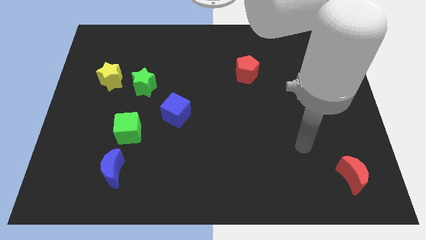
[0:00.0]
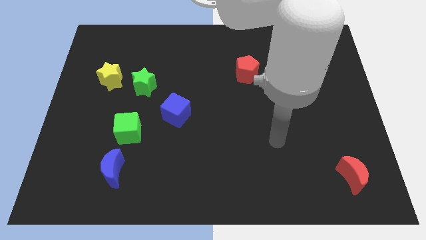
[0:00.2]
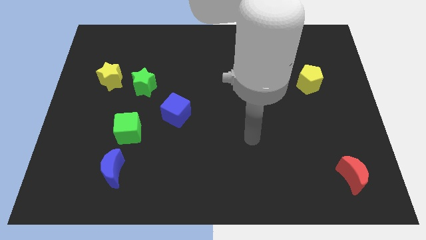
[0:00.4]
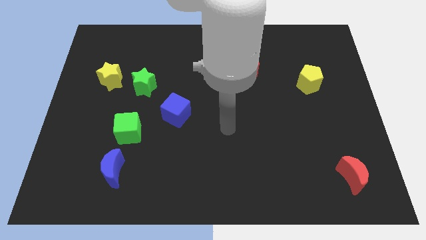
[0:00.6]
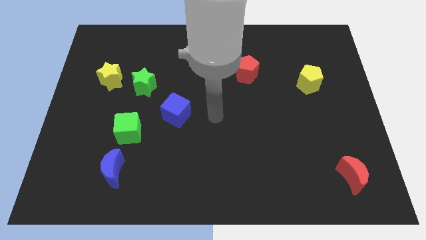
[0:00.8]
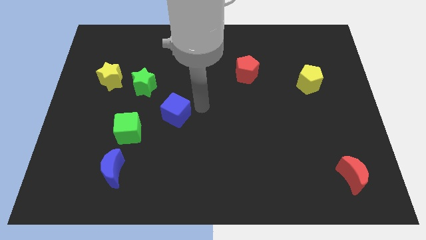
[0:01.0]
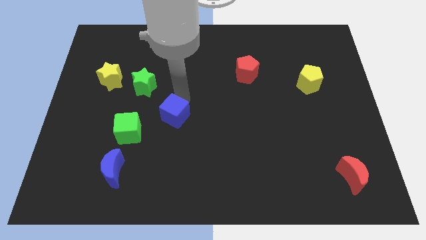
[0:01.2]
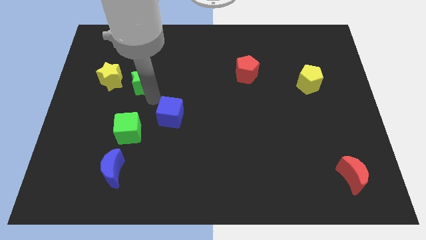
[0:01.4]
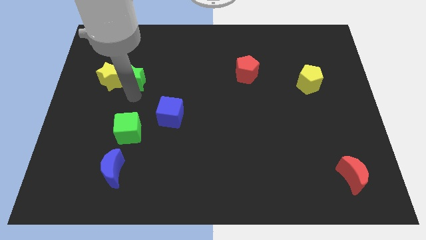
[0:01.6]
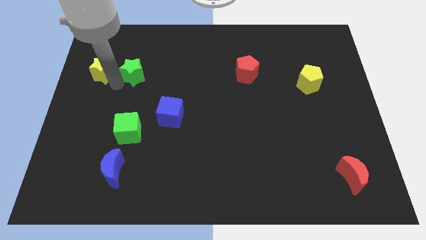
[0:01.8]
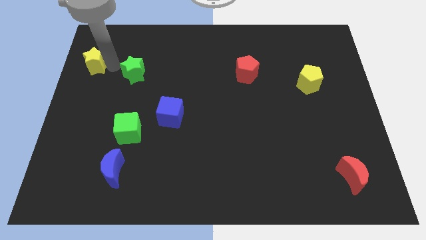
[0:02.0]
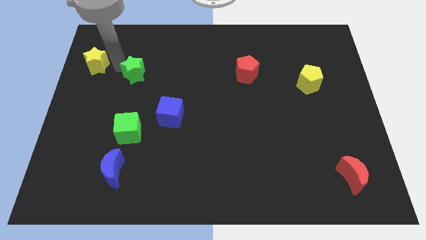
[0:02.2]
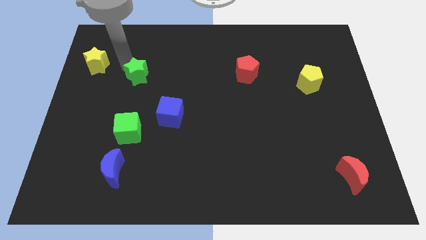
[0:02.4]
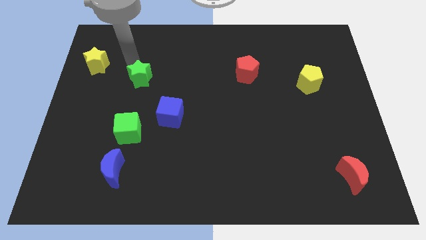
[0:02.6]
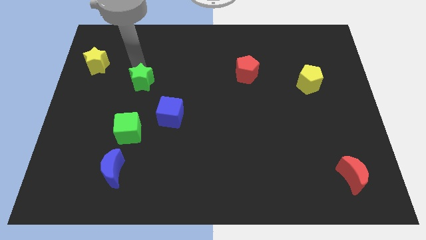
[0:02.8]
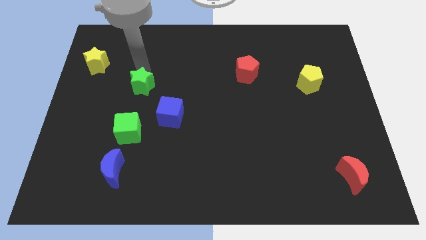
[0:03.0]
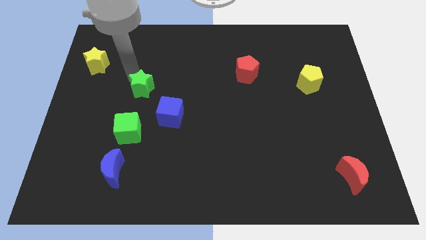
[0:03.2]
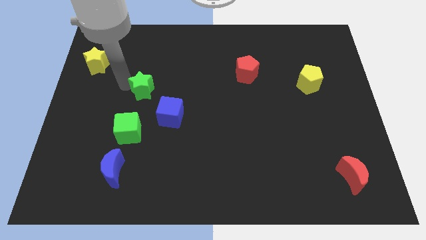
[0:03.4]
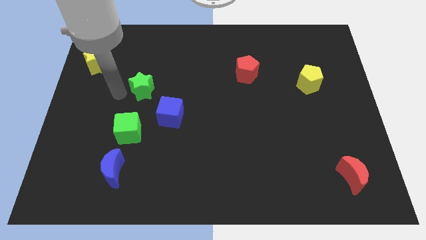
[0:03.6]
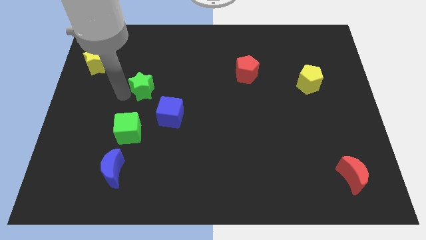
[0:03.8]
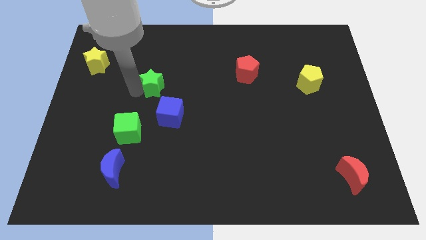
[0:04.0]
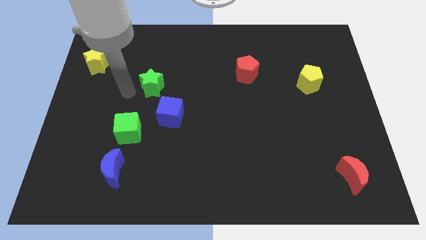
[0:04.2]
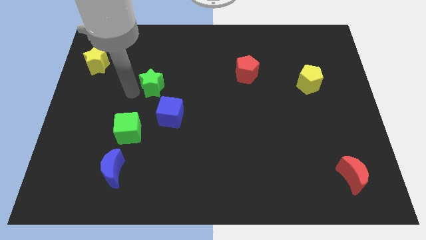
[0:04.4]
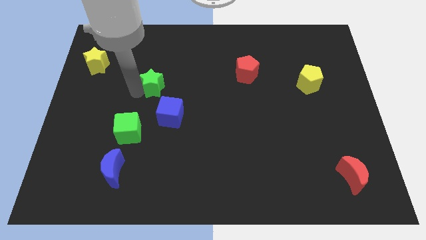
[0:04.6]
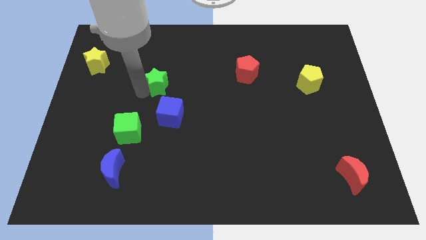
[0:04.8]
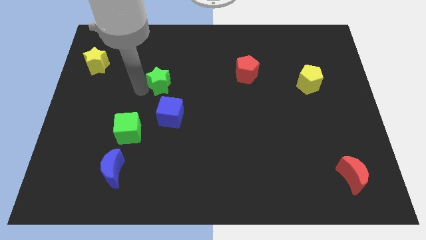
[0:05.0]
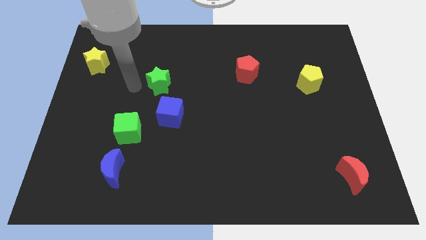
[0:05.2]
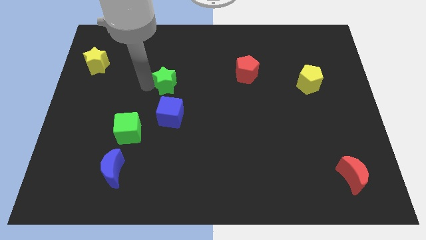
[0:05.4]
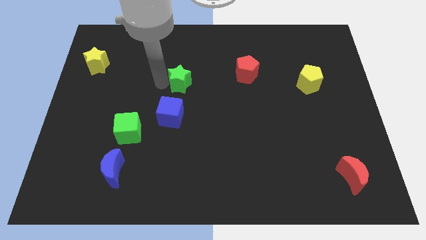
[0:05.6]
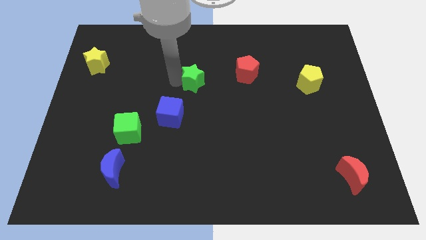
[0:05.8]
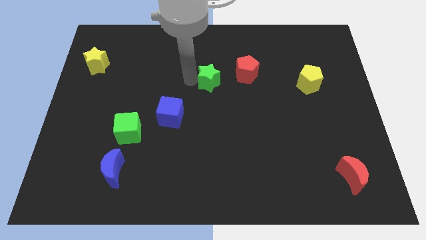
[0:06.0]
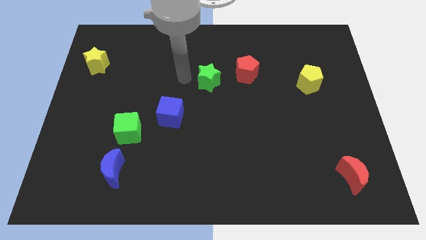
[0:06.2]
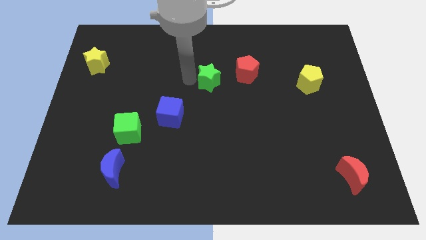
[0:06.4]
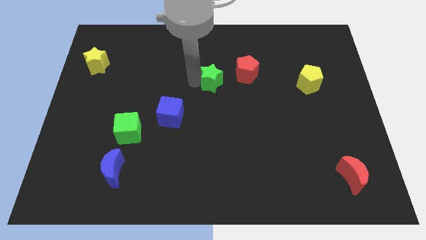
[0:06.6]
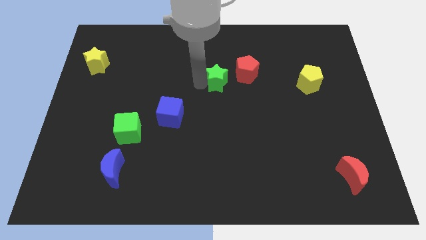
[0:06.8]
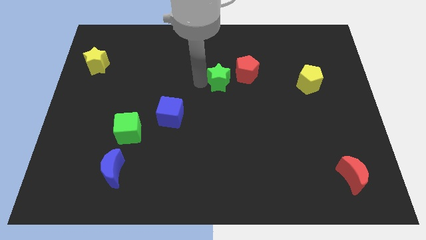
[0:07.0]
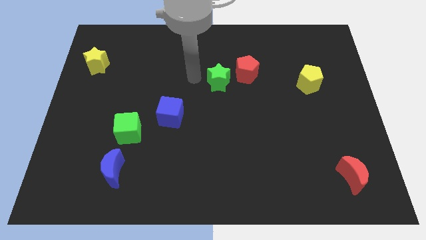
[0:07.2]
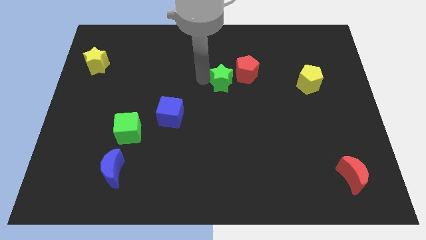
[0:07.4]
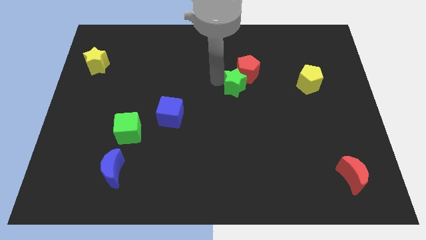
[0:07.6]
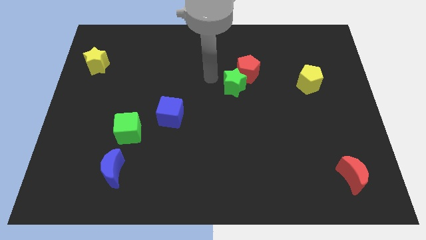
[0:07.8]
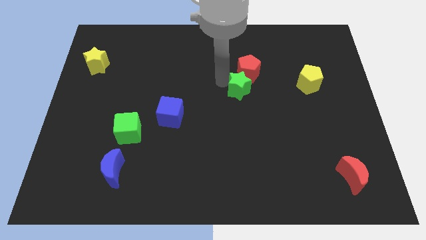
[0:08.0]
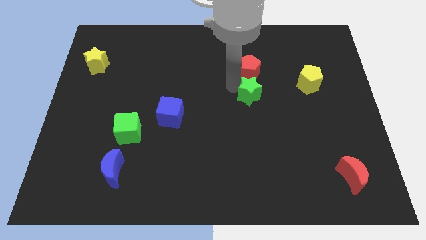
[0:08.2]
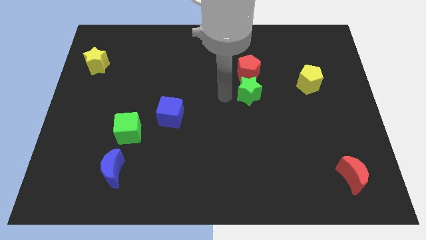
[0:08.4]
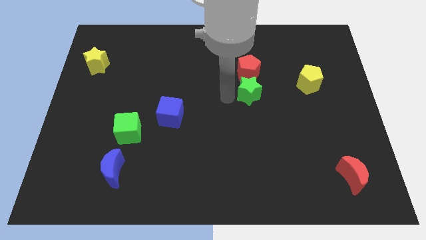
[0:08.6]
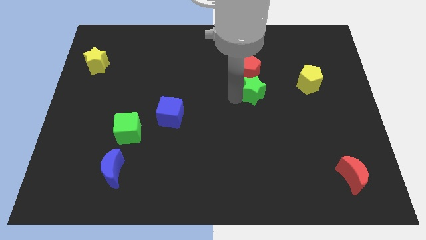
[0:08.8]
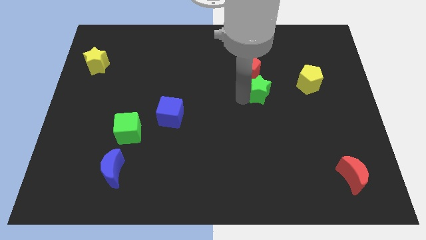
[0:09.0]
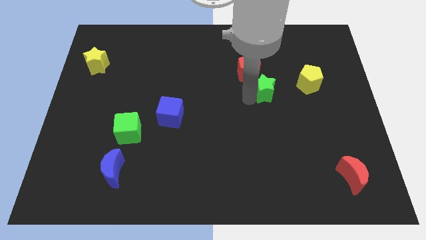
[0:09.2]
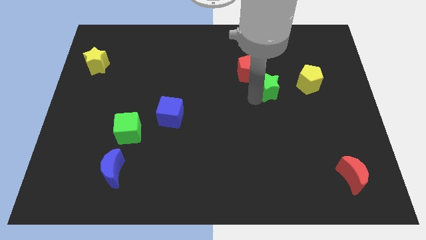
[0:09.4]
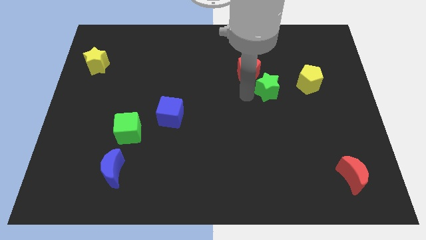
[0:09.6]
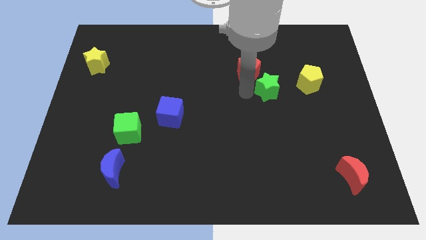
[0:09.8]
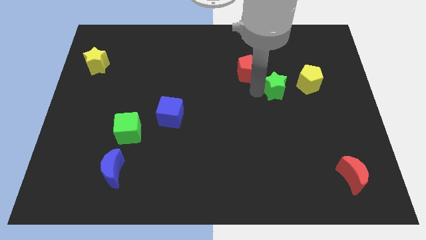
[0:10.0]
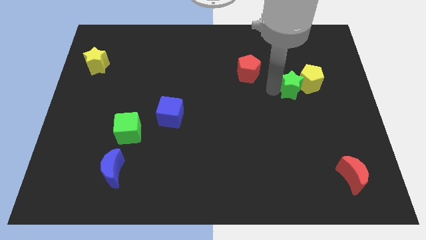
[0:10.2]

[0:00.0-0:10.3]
push the green star close to the yellow pentagon

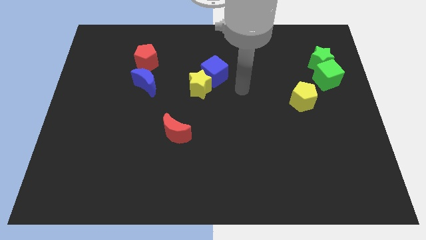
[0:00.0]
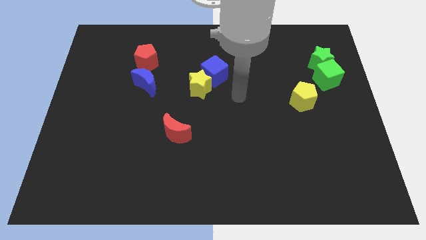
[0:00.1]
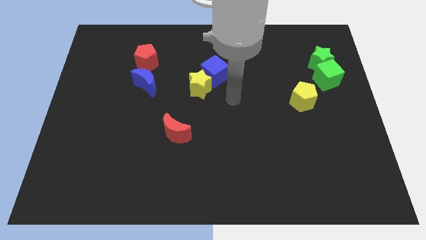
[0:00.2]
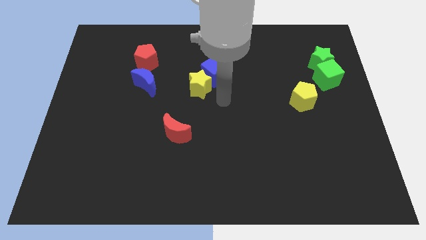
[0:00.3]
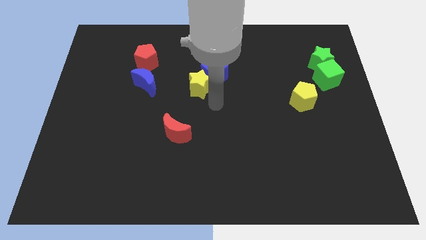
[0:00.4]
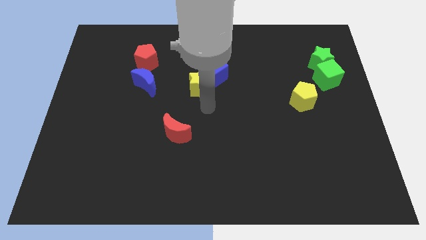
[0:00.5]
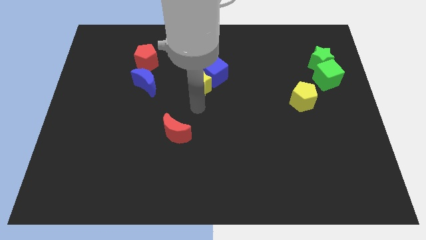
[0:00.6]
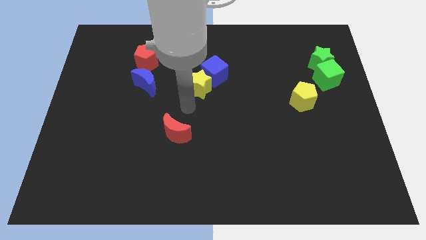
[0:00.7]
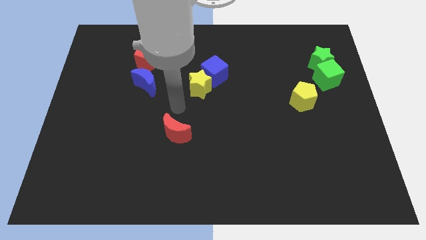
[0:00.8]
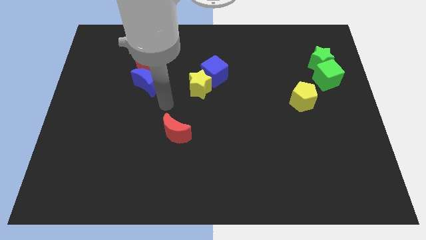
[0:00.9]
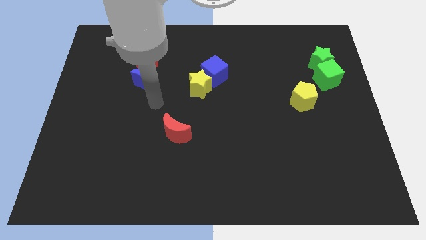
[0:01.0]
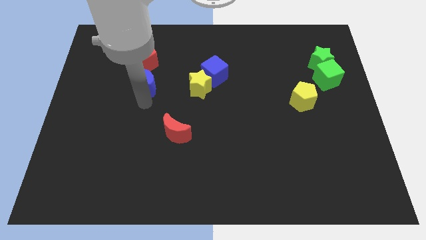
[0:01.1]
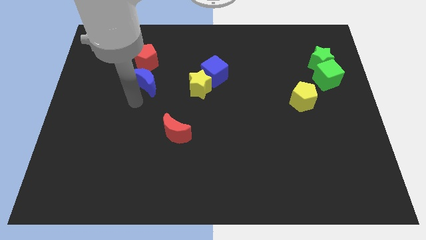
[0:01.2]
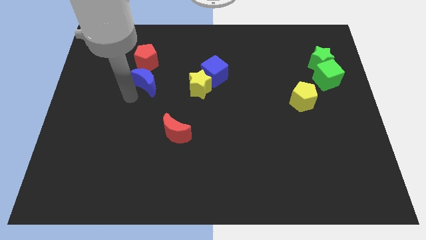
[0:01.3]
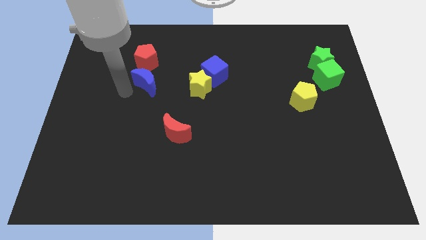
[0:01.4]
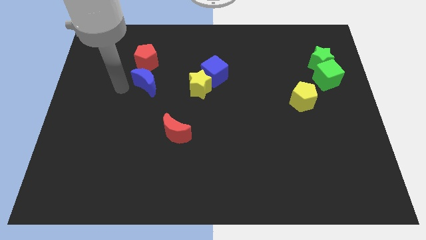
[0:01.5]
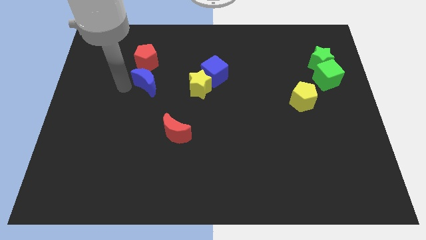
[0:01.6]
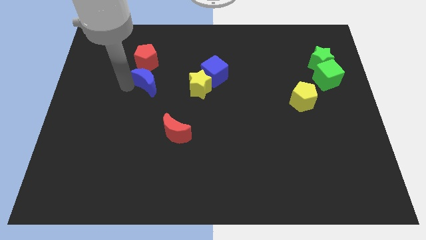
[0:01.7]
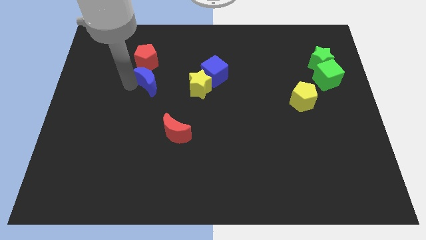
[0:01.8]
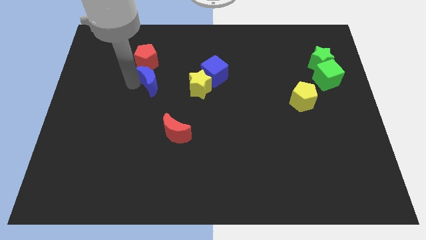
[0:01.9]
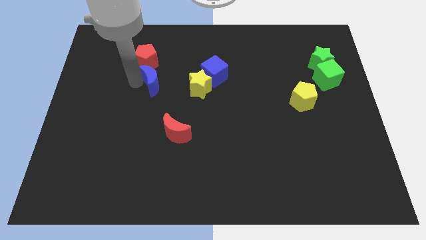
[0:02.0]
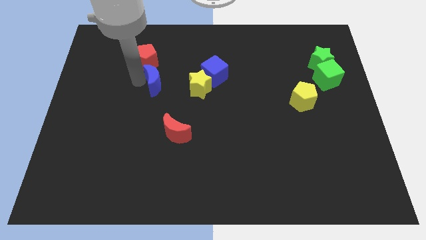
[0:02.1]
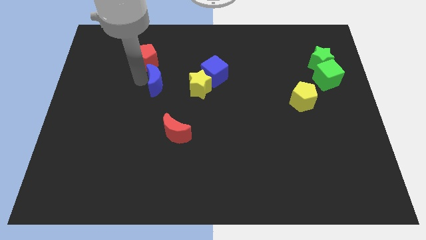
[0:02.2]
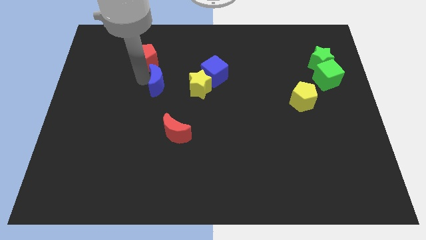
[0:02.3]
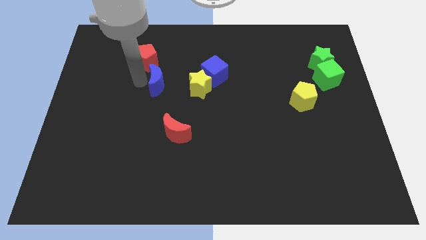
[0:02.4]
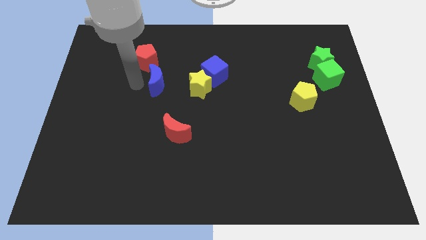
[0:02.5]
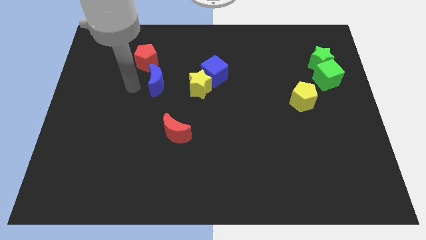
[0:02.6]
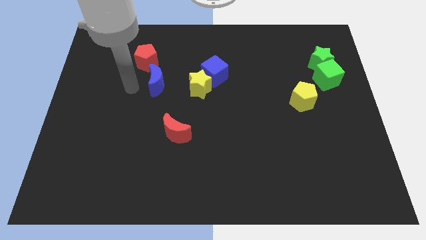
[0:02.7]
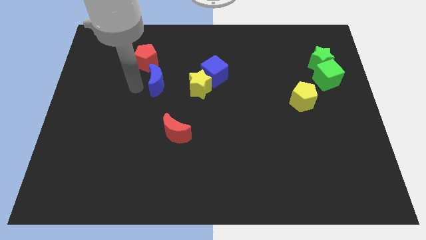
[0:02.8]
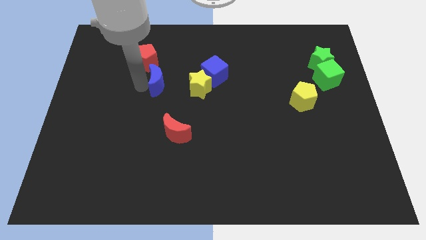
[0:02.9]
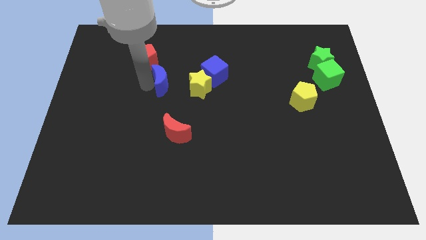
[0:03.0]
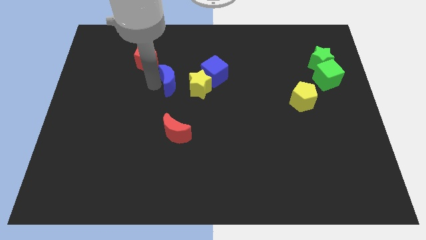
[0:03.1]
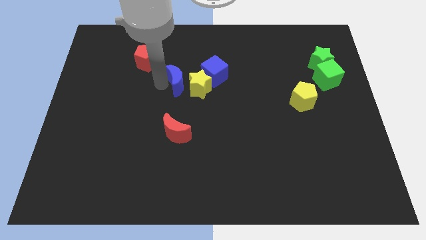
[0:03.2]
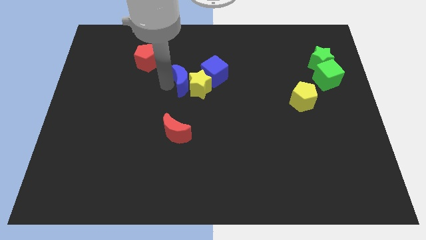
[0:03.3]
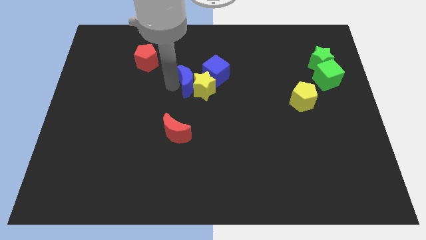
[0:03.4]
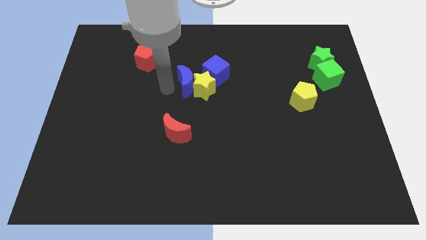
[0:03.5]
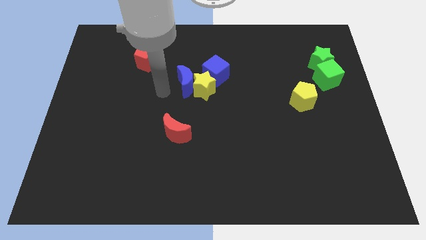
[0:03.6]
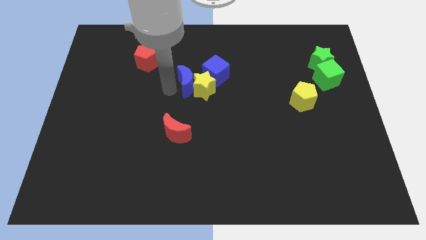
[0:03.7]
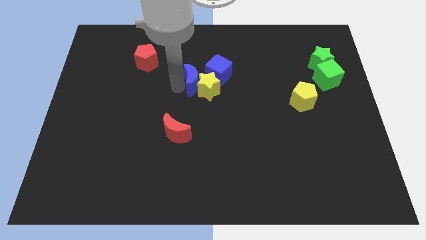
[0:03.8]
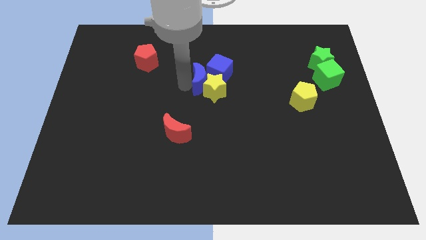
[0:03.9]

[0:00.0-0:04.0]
push the blue moon to the blue cube
